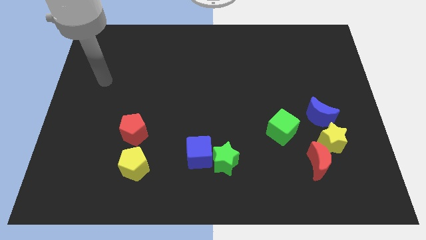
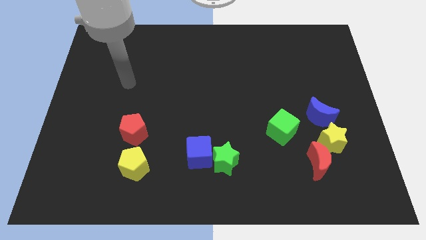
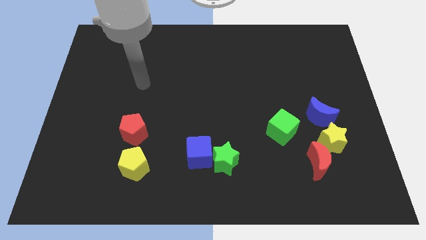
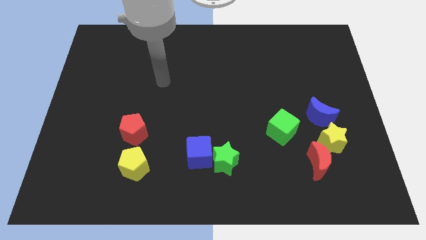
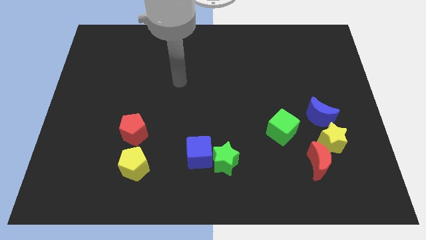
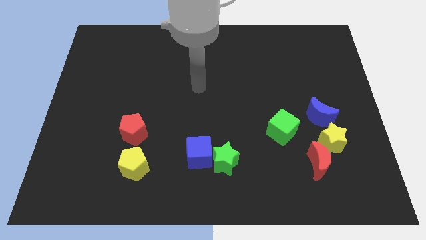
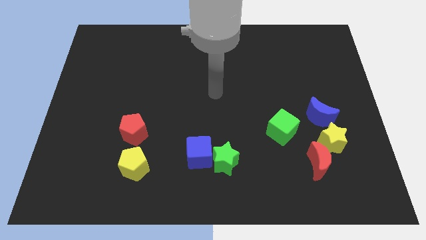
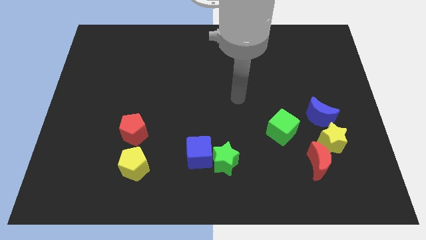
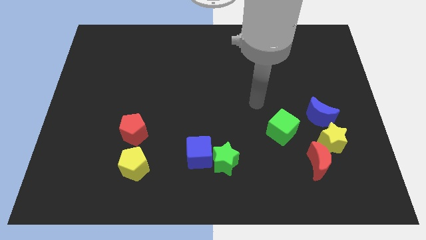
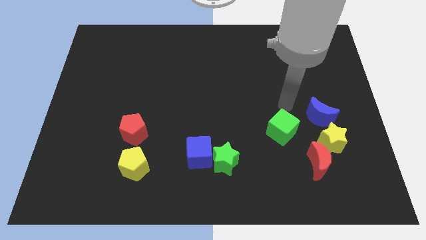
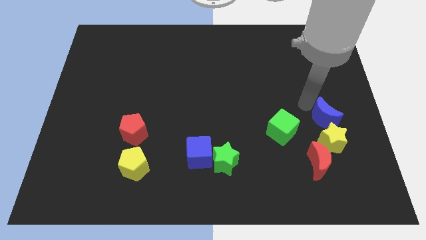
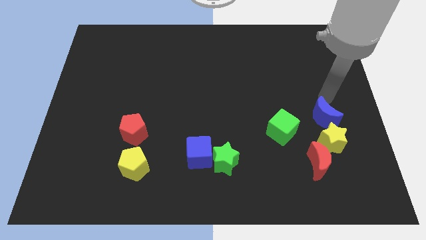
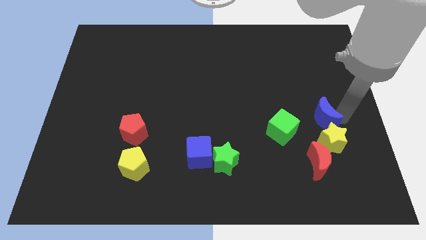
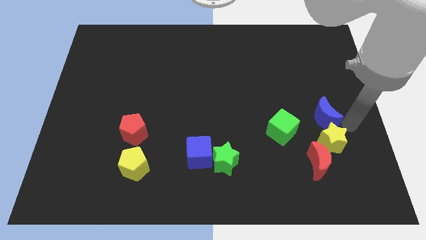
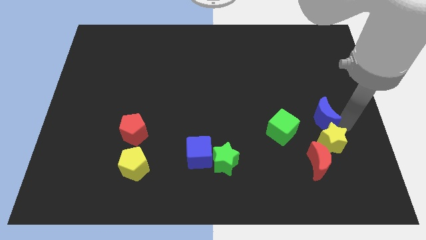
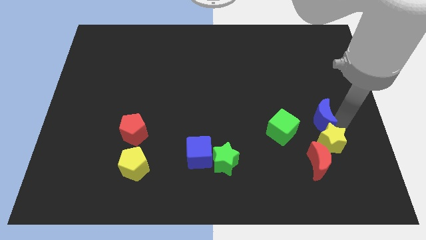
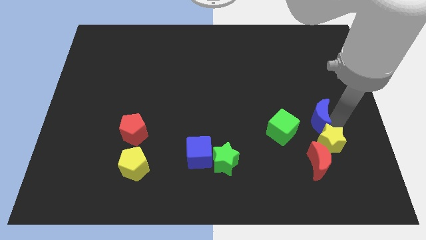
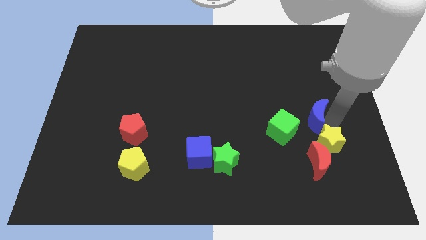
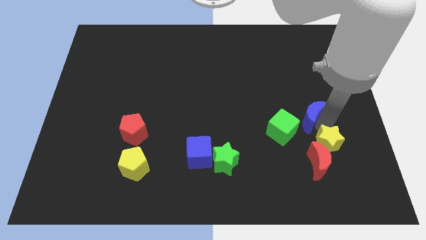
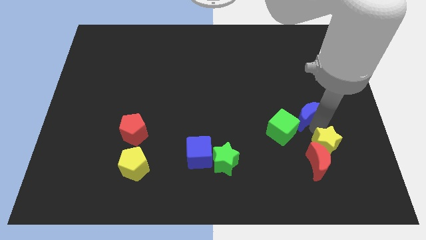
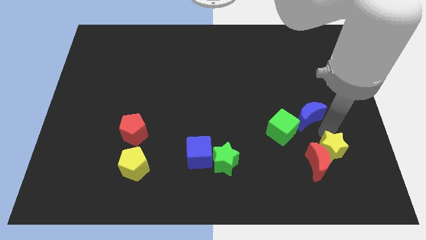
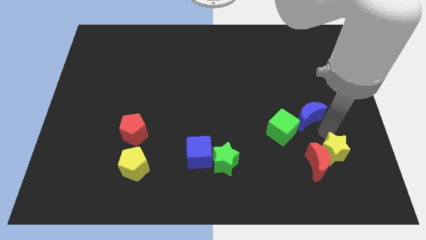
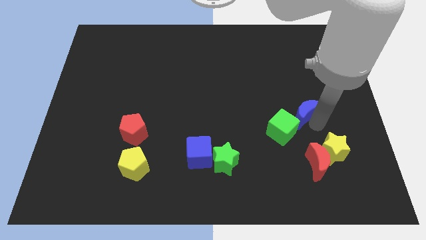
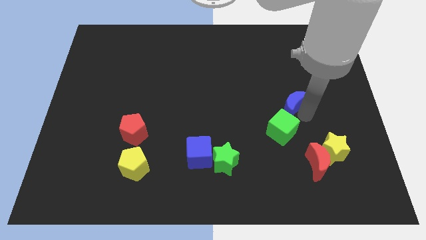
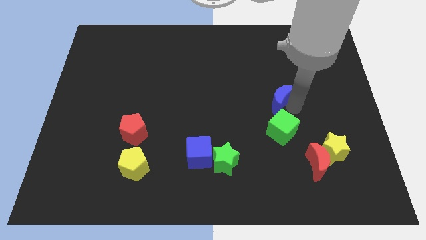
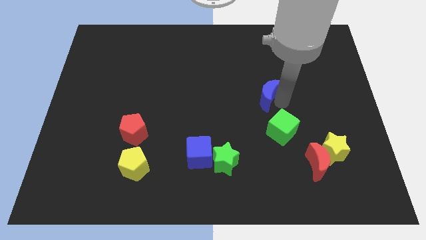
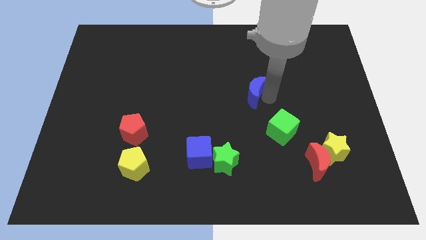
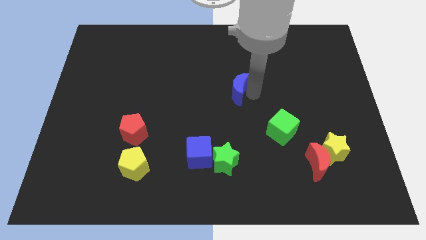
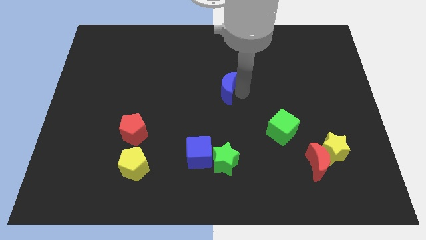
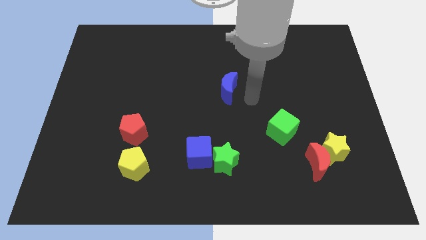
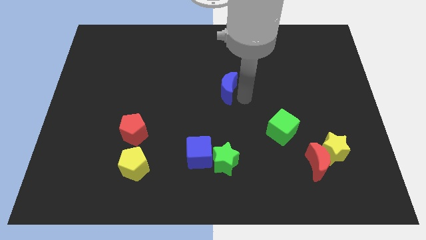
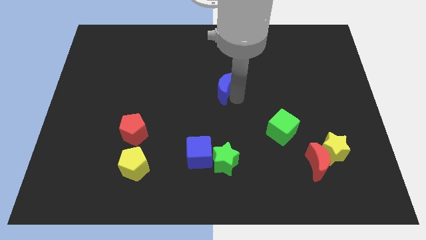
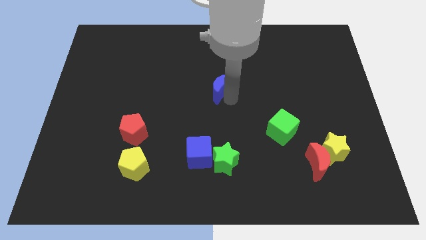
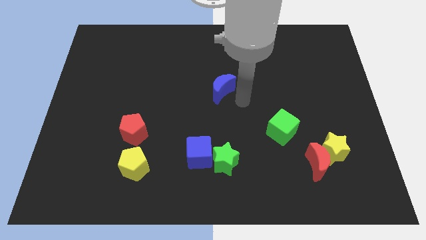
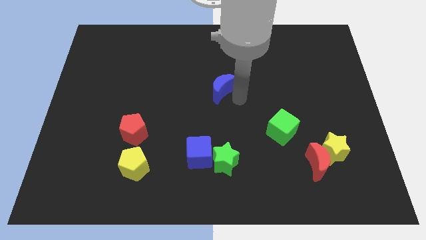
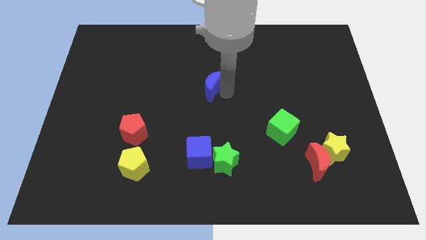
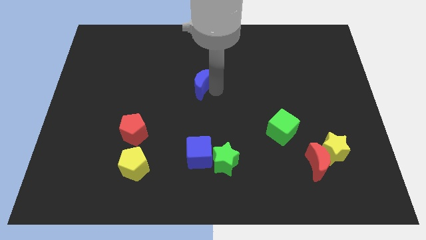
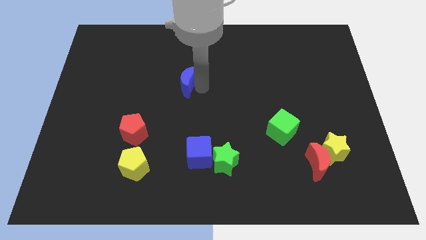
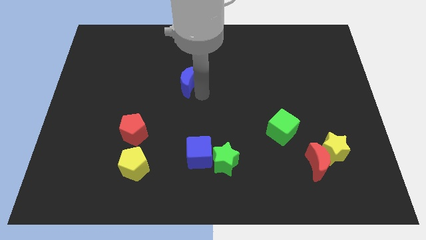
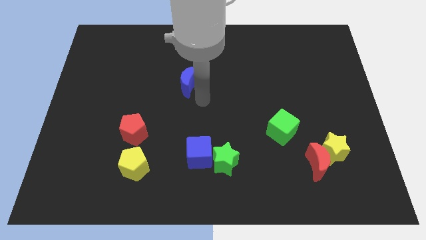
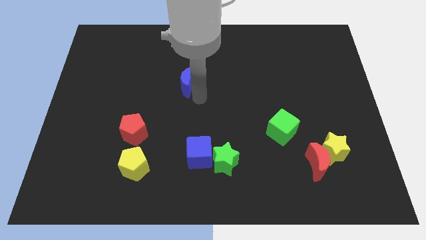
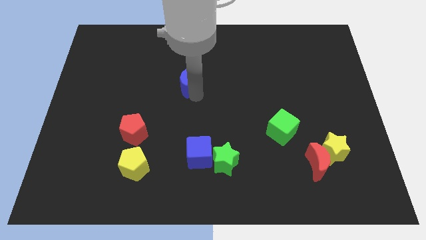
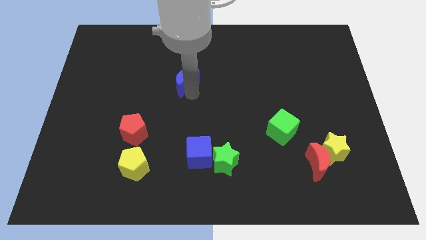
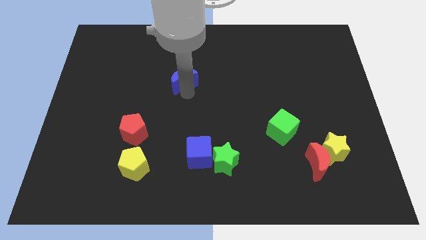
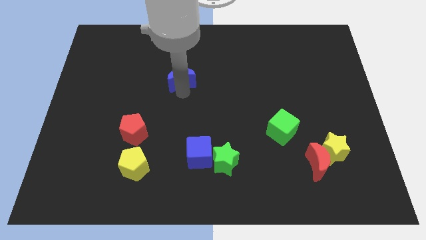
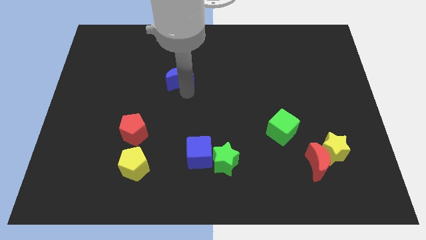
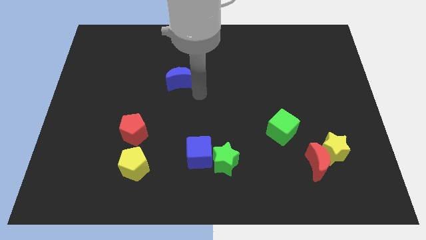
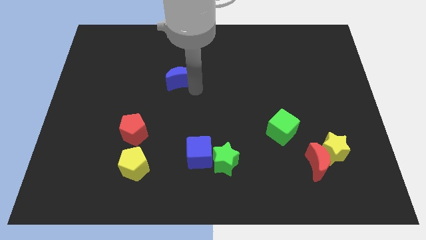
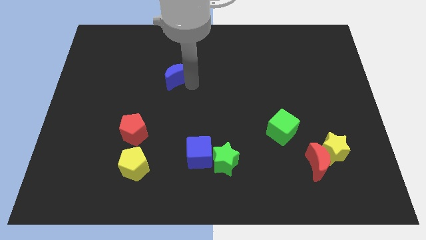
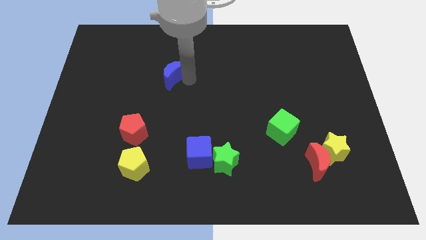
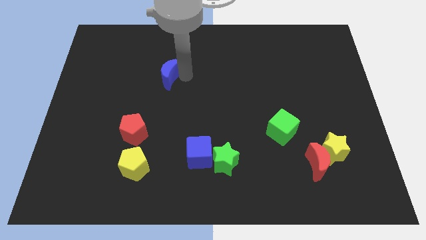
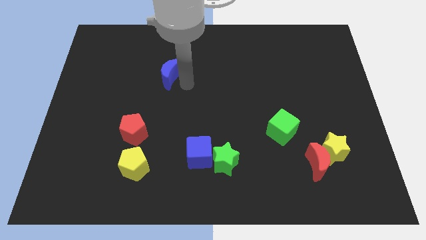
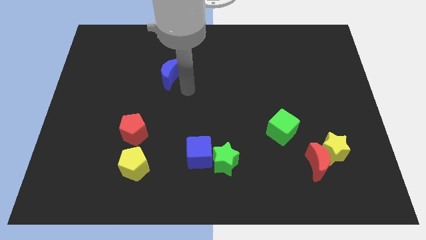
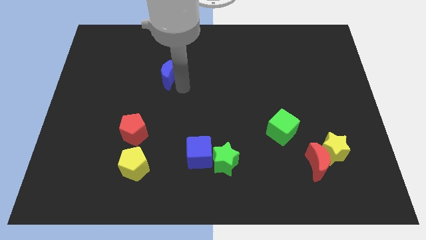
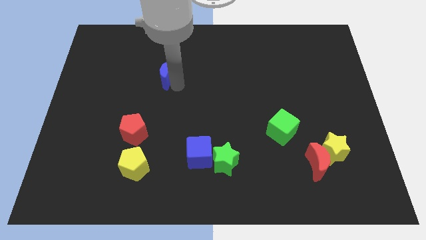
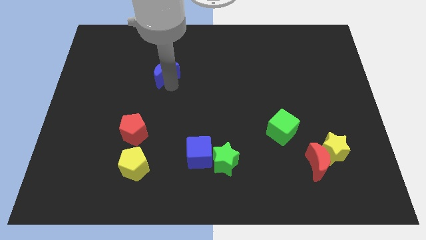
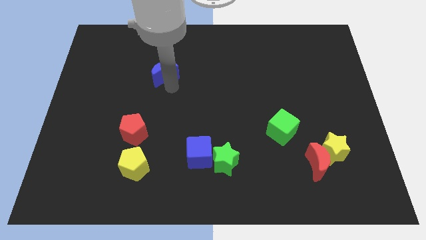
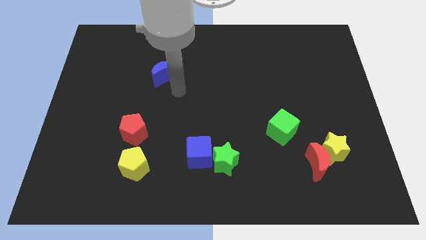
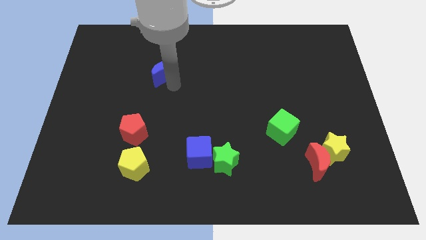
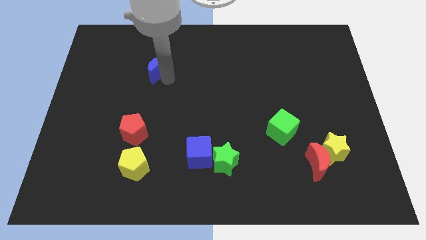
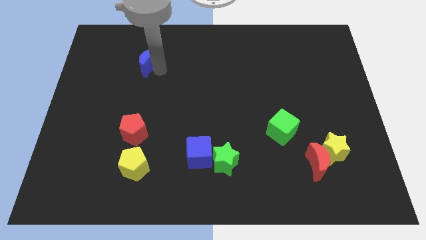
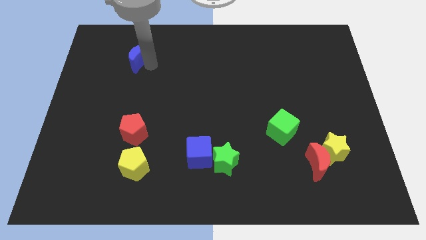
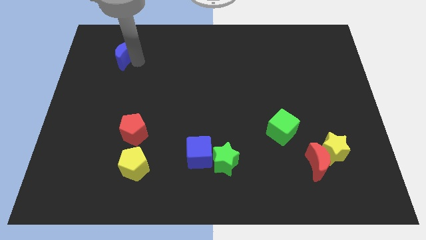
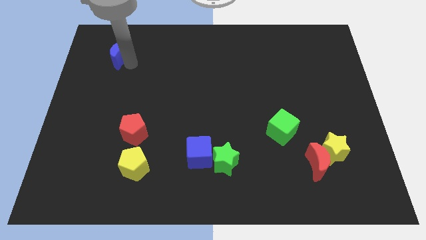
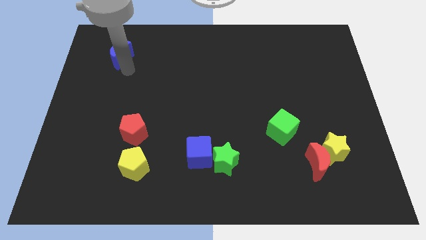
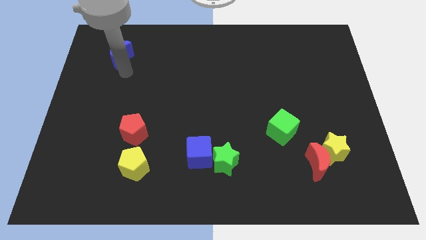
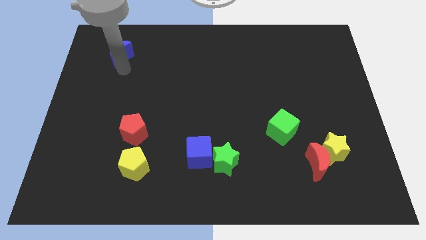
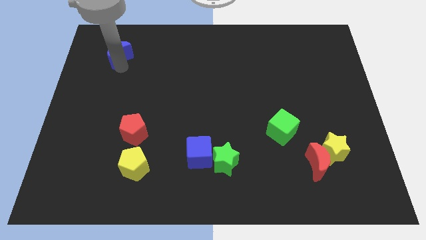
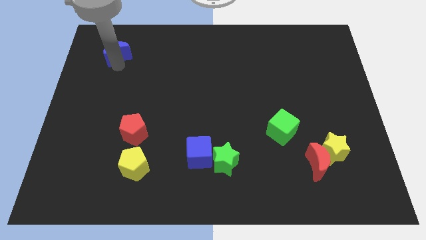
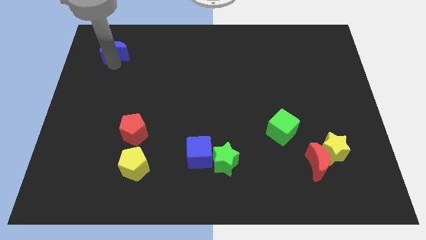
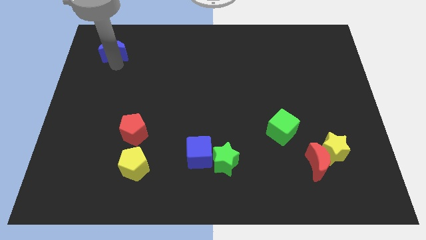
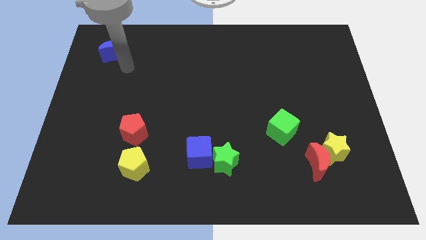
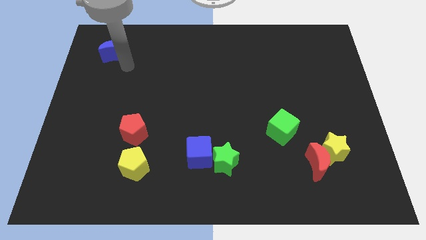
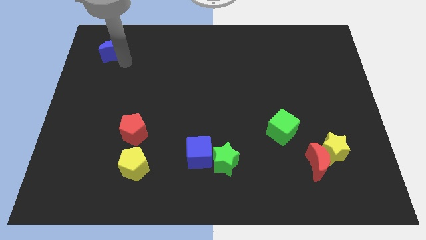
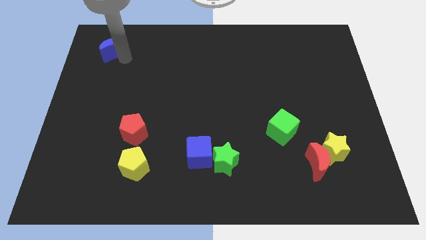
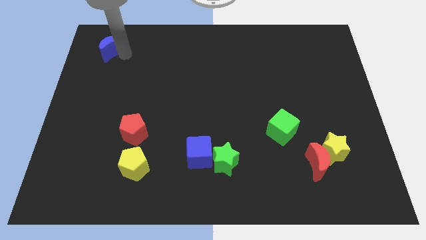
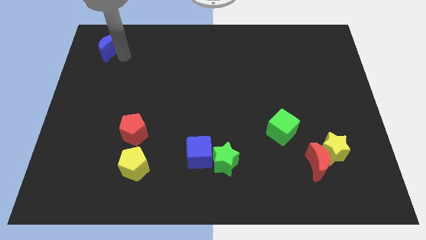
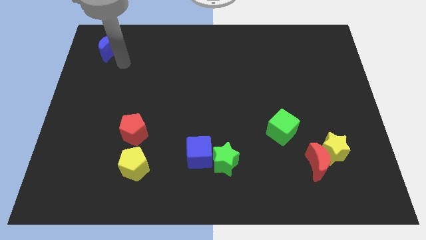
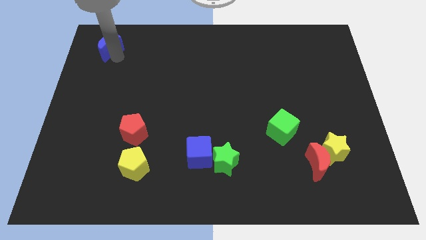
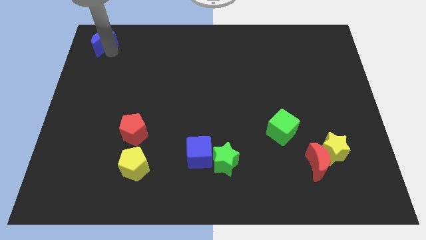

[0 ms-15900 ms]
put the blue moon to the upper left corner
